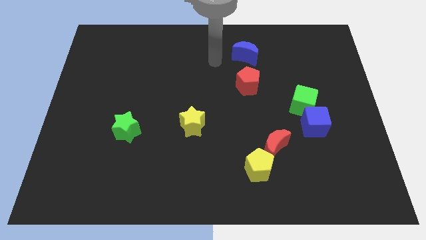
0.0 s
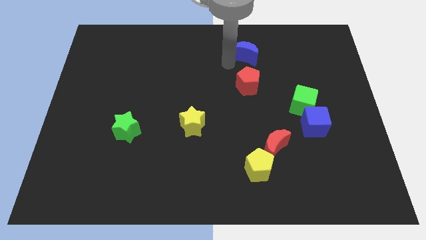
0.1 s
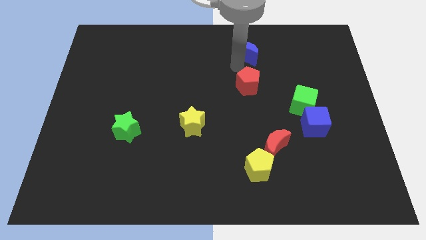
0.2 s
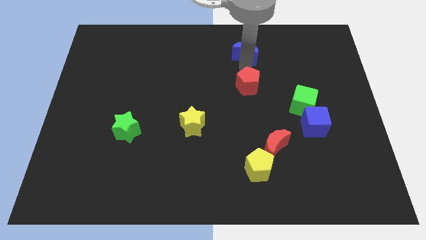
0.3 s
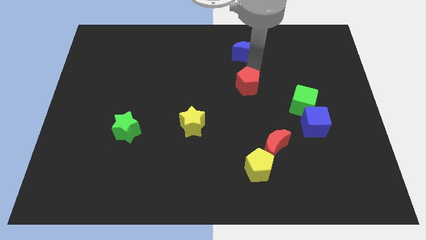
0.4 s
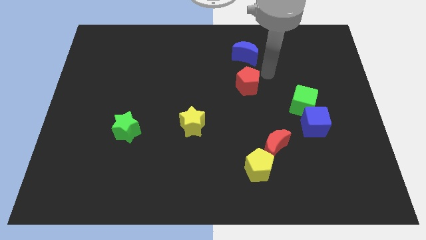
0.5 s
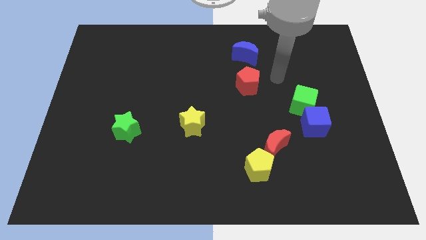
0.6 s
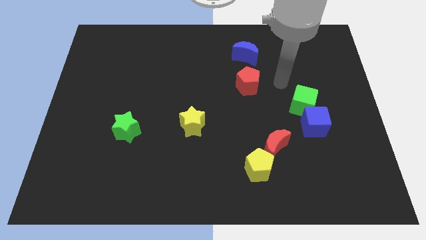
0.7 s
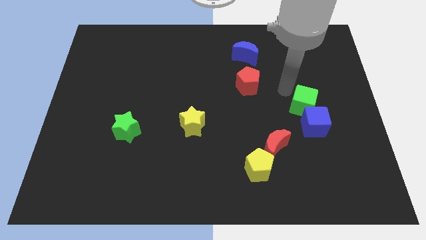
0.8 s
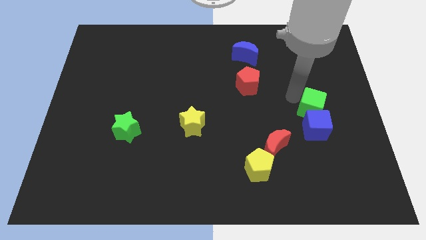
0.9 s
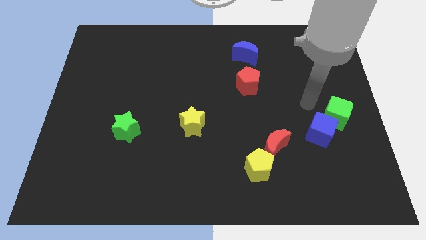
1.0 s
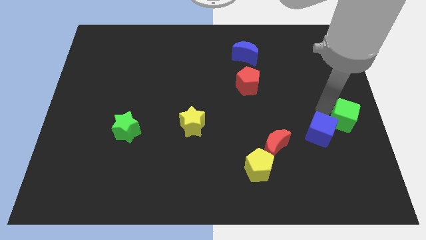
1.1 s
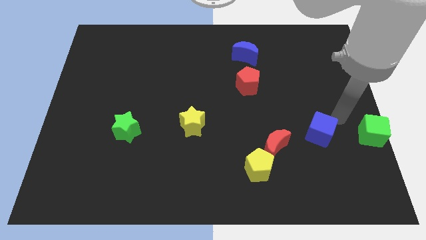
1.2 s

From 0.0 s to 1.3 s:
pull the blue cube apart from the green cube

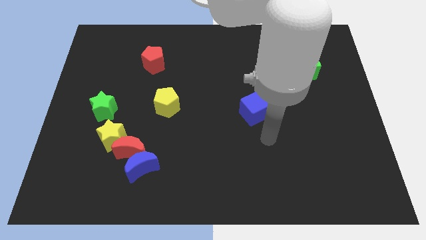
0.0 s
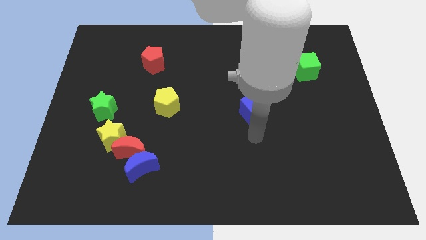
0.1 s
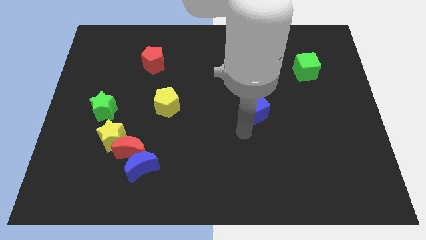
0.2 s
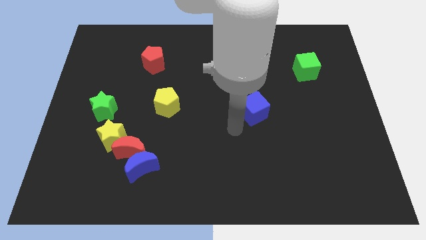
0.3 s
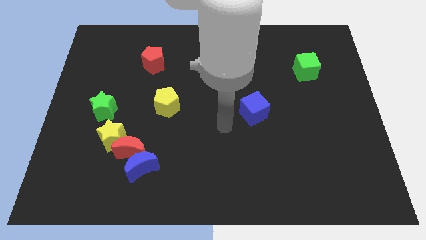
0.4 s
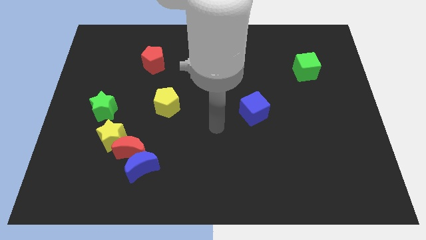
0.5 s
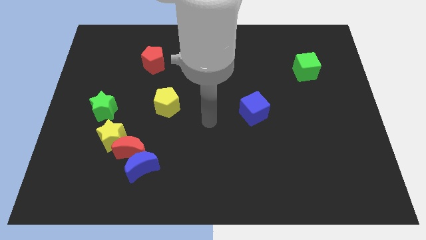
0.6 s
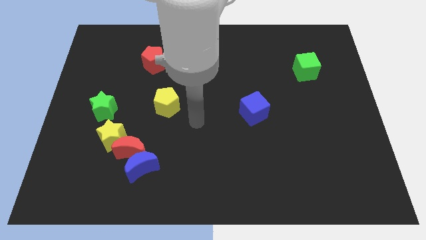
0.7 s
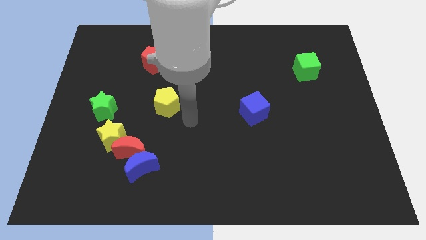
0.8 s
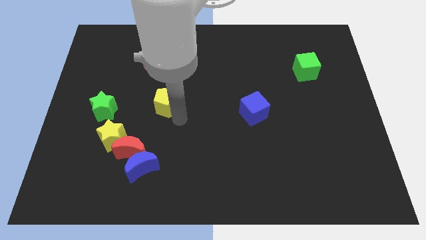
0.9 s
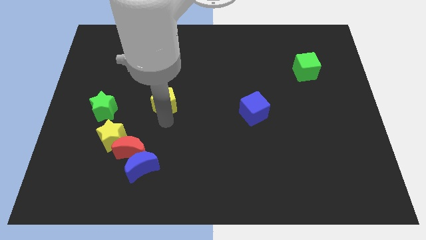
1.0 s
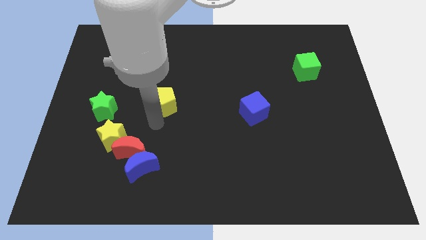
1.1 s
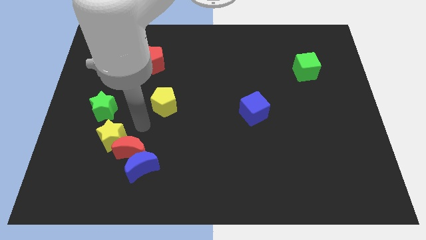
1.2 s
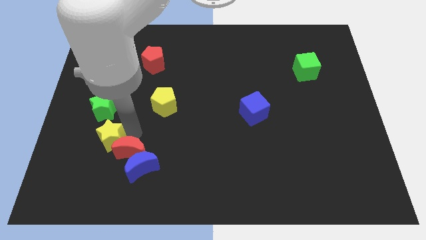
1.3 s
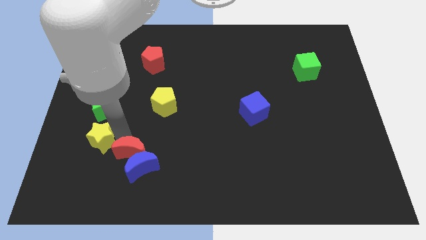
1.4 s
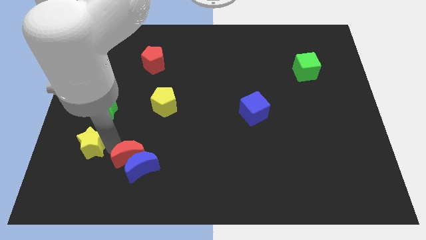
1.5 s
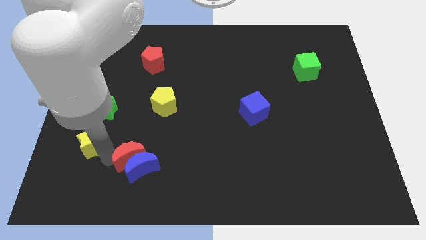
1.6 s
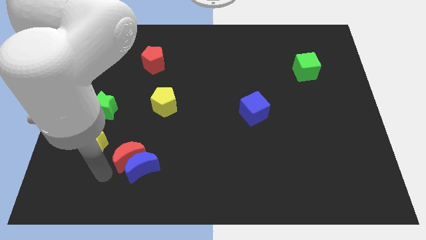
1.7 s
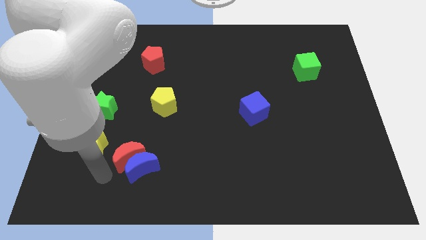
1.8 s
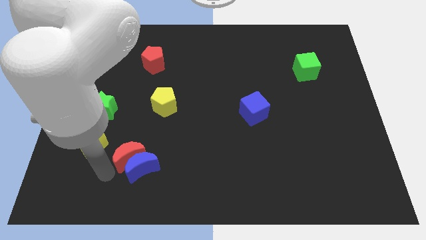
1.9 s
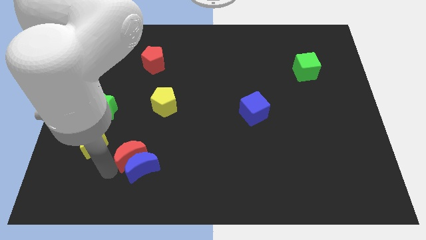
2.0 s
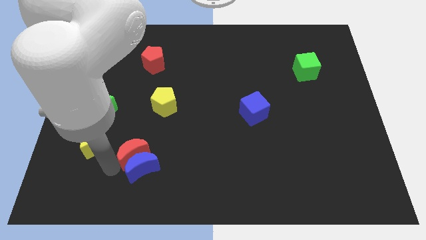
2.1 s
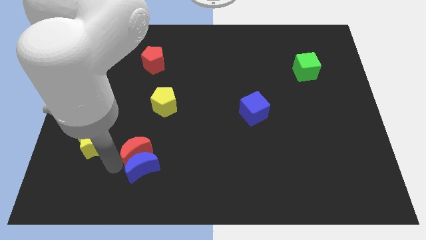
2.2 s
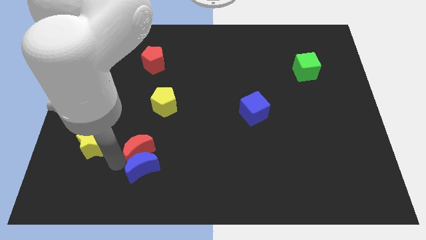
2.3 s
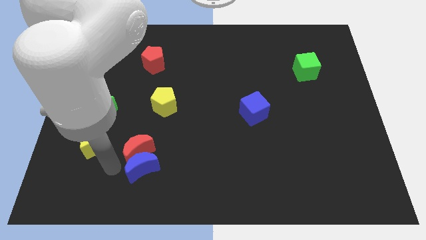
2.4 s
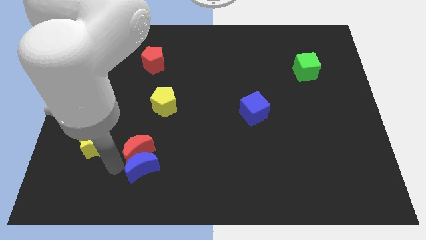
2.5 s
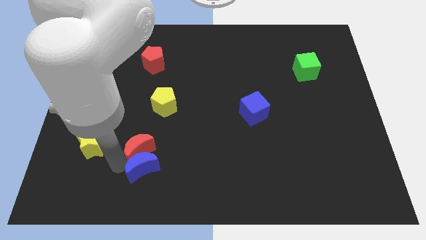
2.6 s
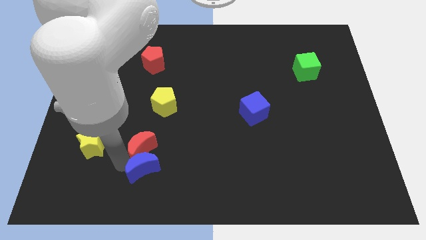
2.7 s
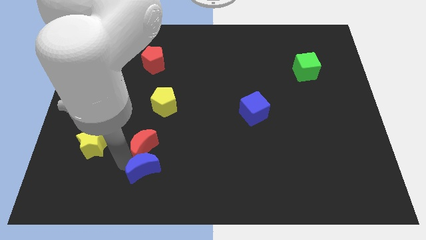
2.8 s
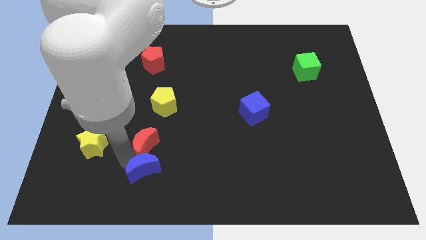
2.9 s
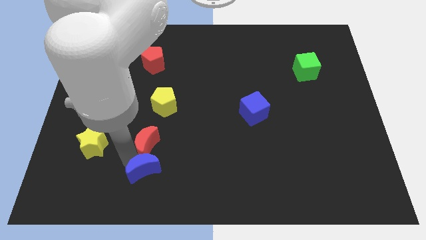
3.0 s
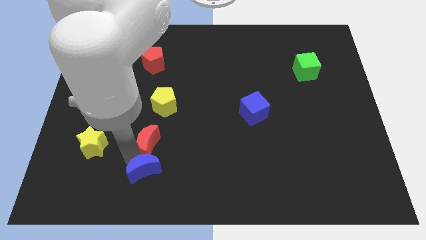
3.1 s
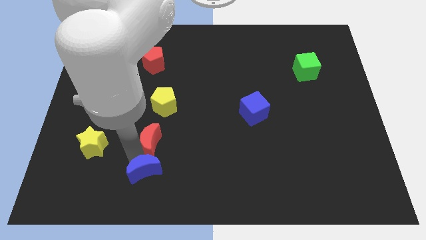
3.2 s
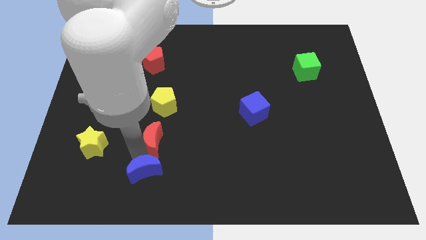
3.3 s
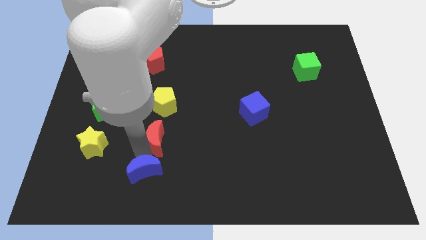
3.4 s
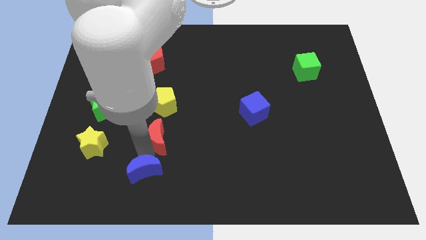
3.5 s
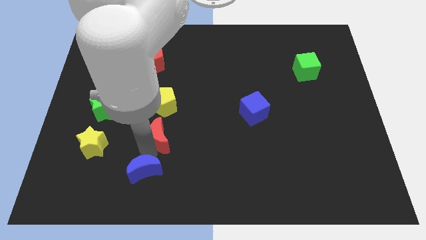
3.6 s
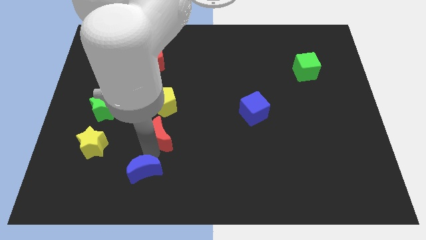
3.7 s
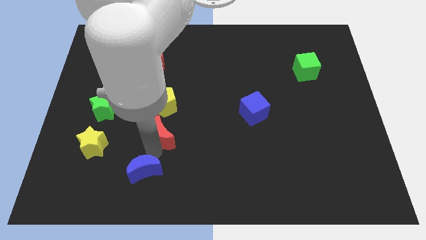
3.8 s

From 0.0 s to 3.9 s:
separate the red moon from the blue moon and yellow star

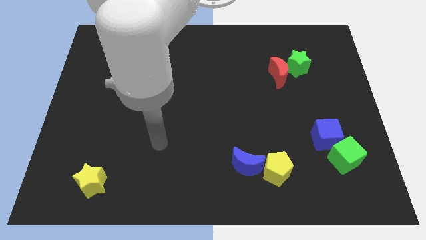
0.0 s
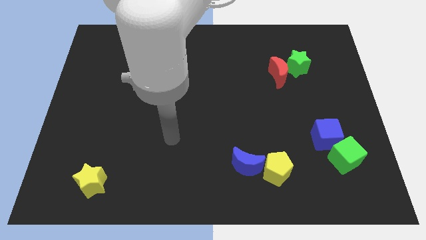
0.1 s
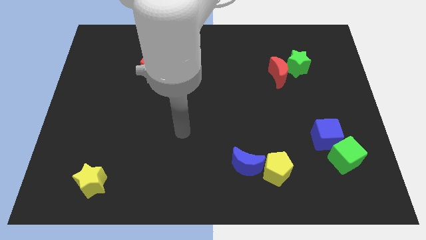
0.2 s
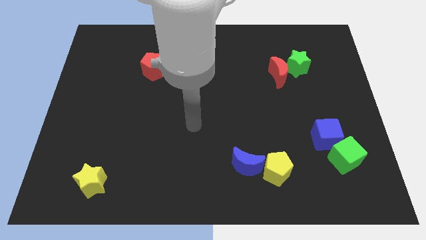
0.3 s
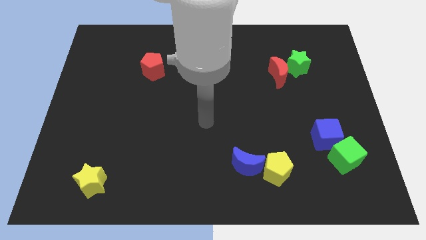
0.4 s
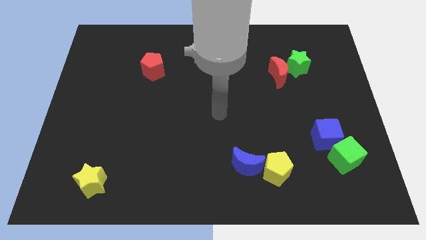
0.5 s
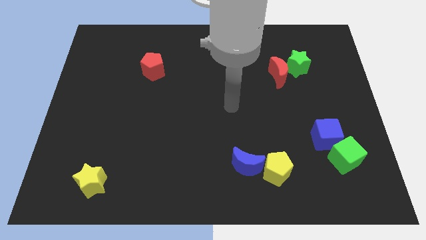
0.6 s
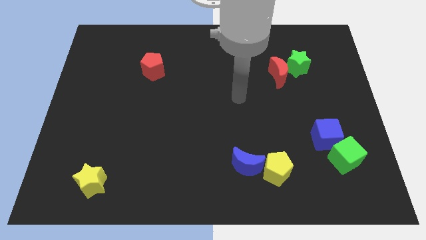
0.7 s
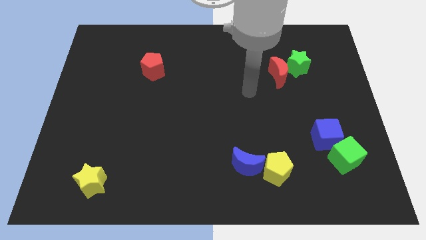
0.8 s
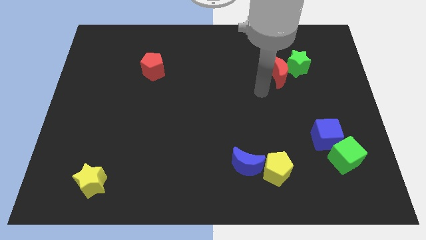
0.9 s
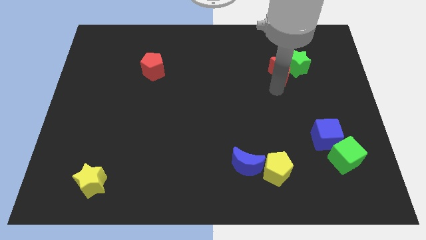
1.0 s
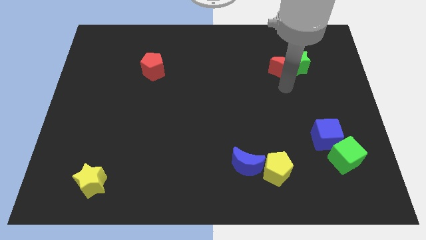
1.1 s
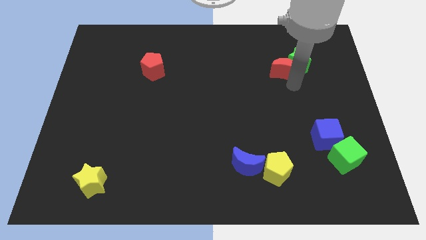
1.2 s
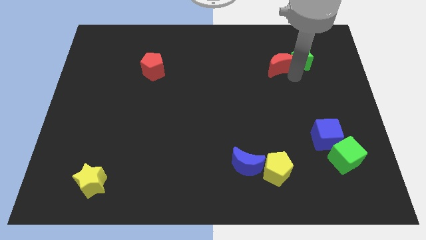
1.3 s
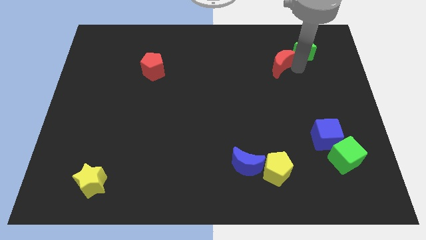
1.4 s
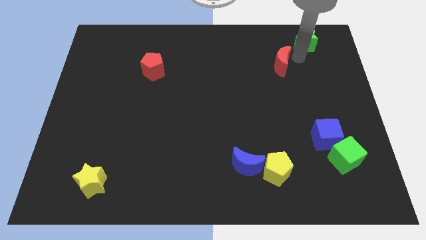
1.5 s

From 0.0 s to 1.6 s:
separate the red moon from the green star

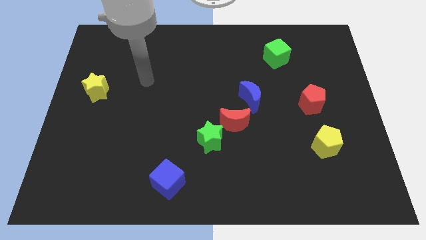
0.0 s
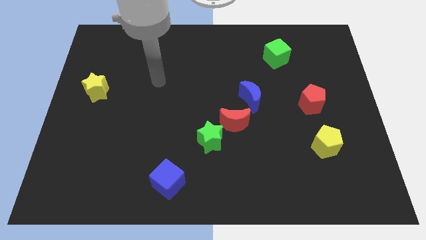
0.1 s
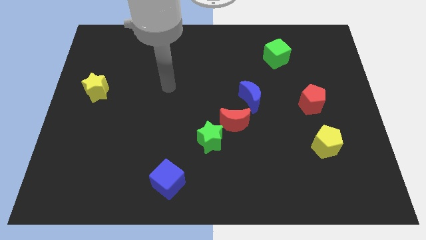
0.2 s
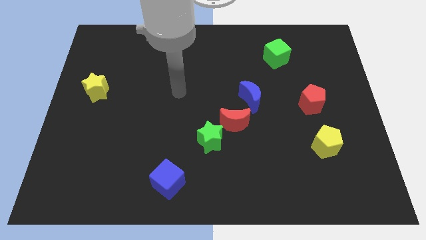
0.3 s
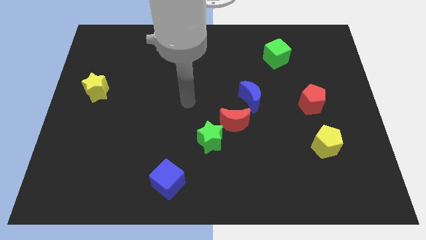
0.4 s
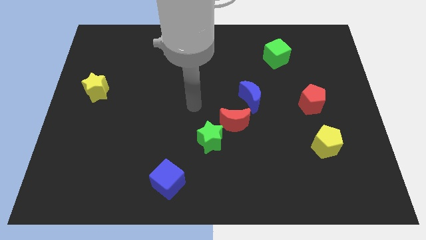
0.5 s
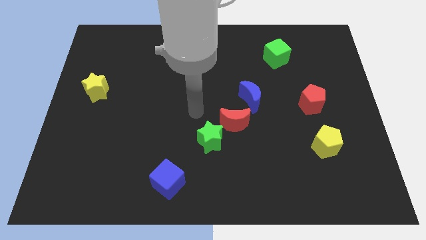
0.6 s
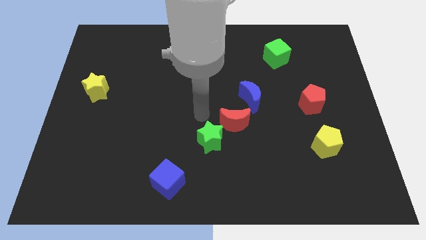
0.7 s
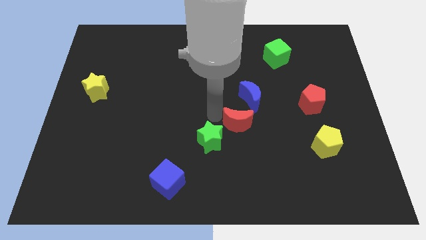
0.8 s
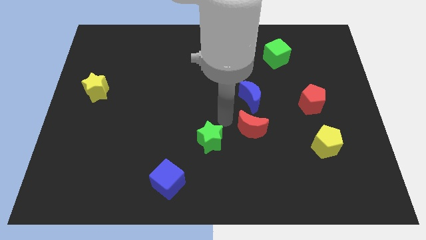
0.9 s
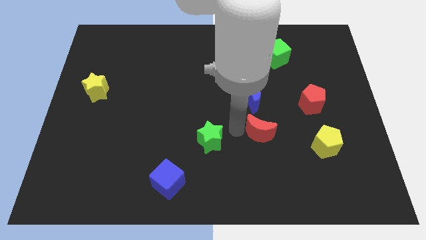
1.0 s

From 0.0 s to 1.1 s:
move the green star away from the red moon

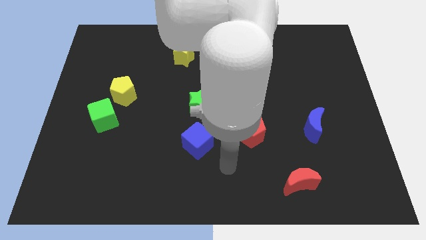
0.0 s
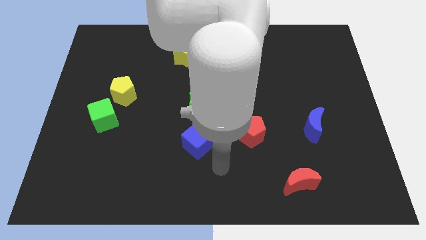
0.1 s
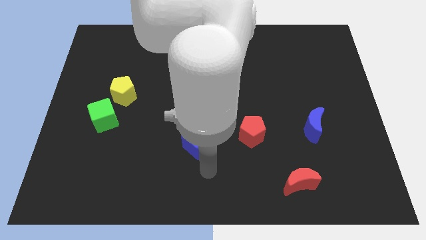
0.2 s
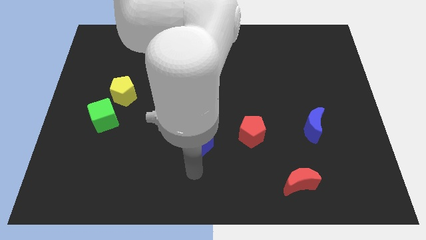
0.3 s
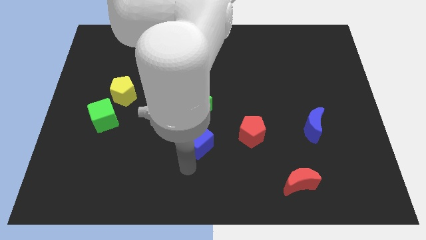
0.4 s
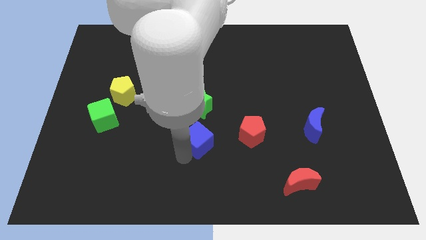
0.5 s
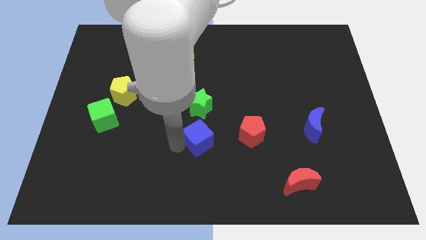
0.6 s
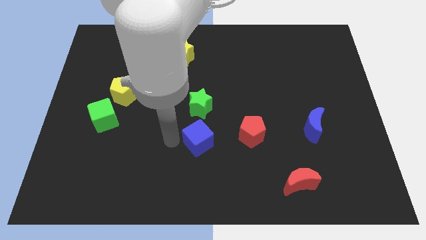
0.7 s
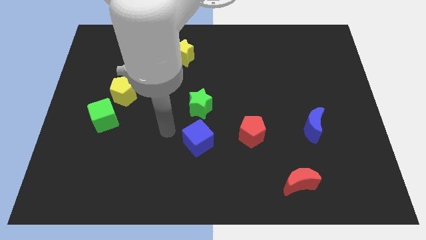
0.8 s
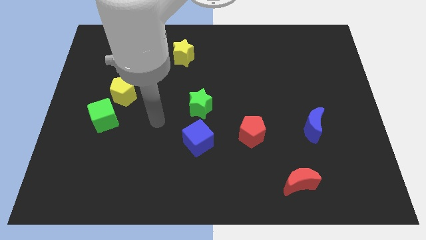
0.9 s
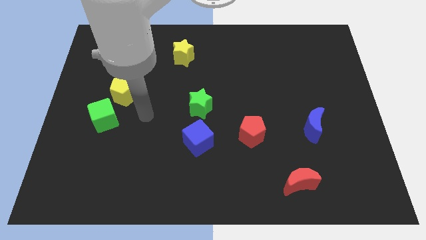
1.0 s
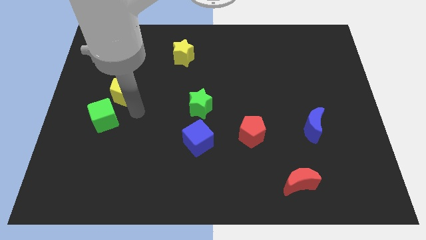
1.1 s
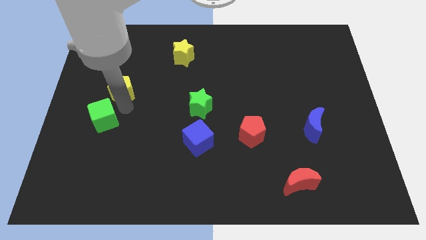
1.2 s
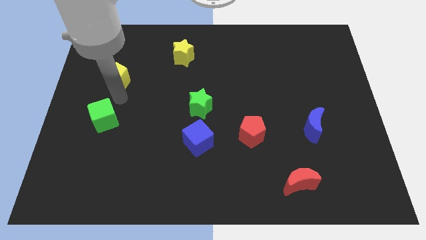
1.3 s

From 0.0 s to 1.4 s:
pull the green cube apart from the yellow pentagon
